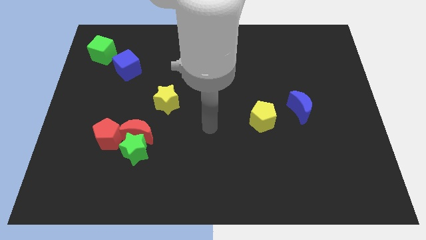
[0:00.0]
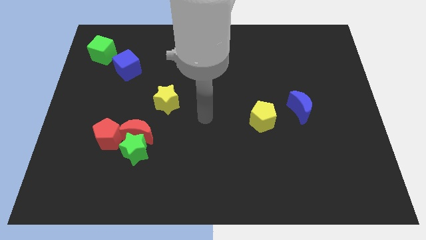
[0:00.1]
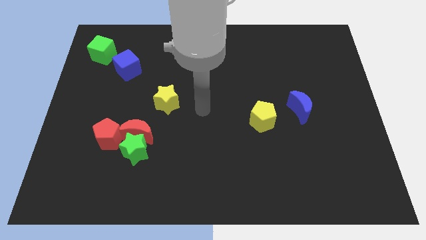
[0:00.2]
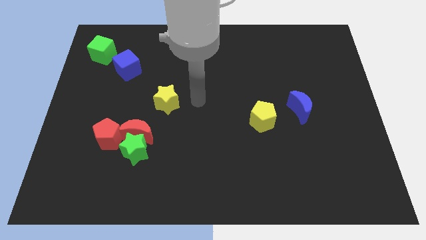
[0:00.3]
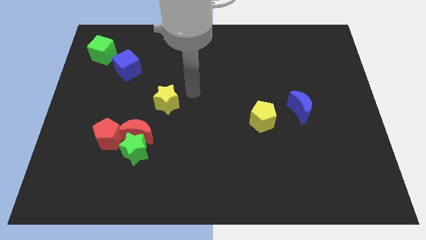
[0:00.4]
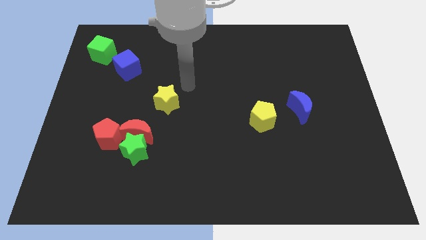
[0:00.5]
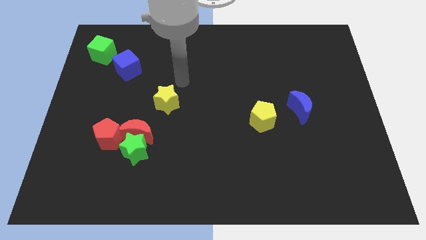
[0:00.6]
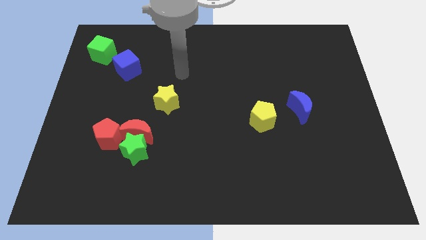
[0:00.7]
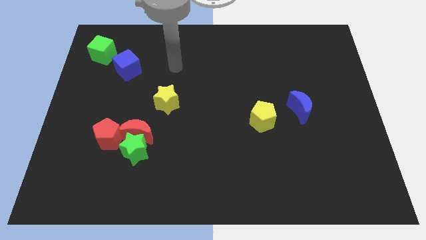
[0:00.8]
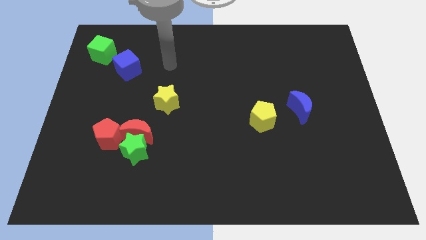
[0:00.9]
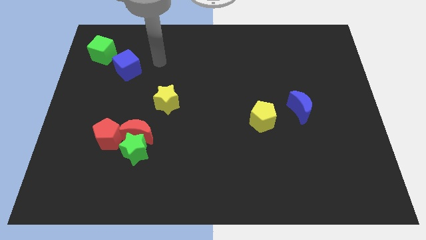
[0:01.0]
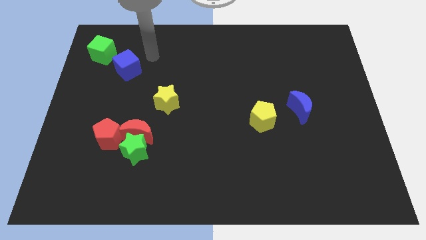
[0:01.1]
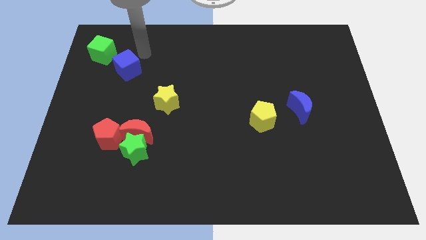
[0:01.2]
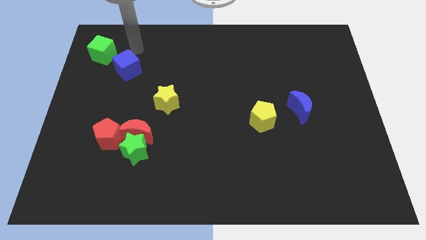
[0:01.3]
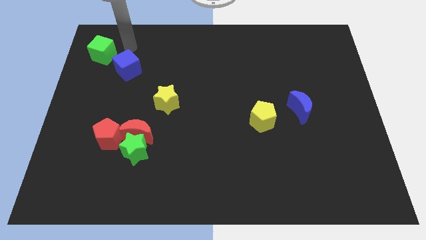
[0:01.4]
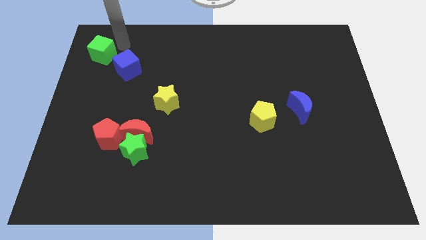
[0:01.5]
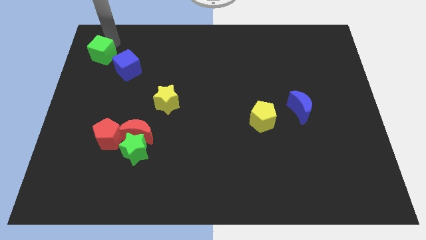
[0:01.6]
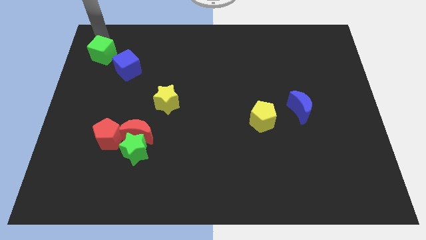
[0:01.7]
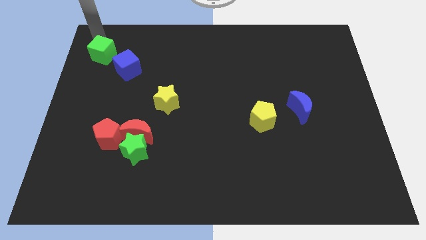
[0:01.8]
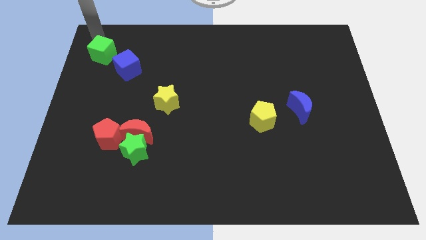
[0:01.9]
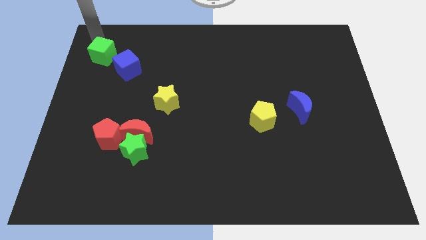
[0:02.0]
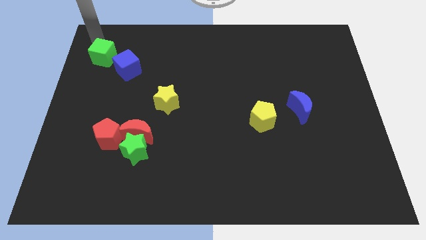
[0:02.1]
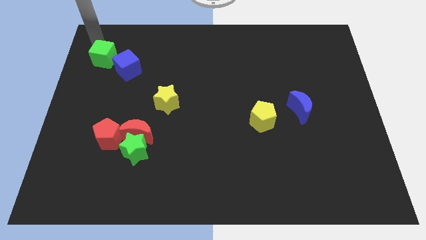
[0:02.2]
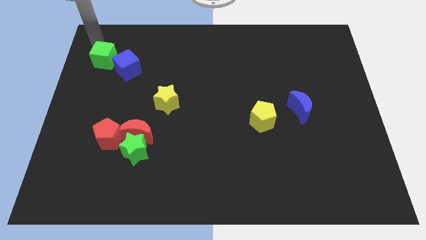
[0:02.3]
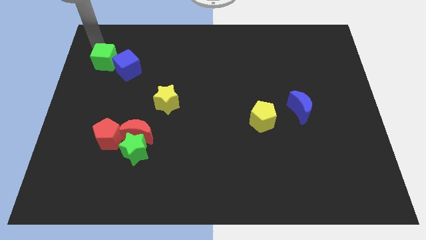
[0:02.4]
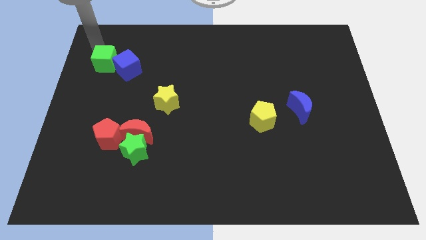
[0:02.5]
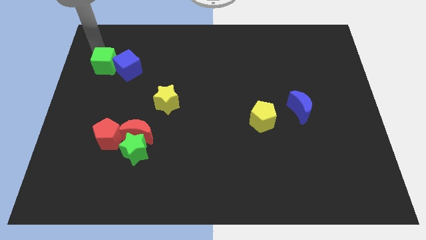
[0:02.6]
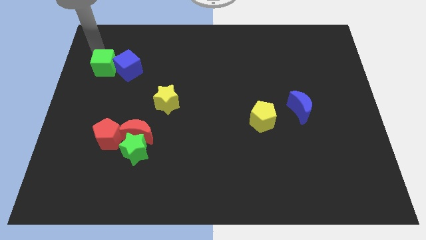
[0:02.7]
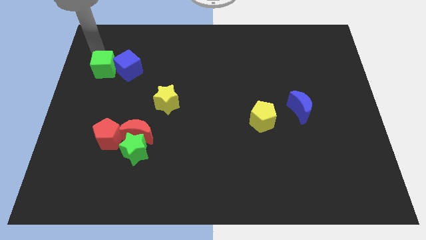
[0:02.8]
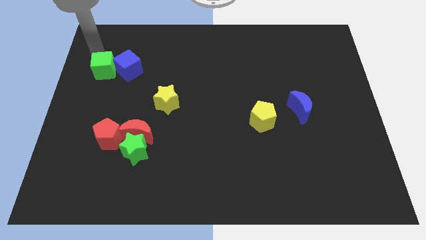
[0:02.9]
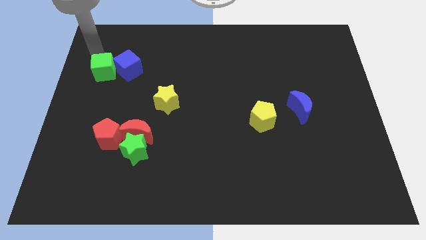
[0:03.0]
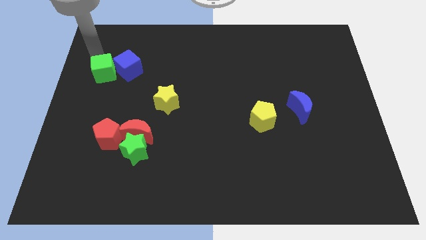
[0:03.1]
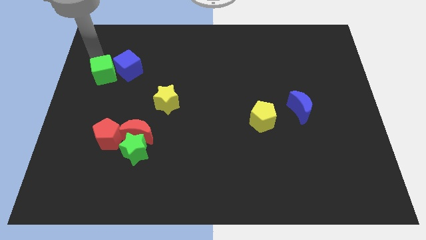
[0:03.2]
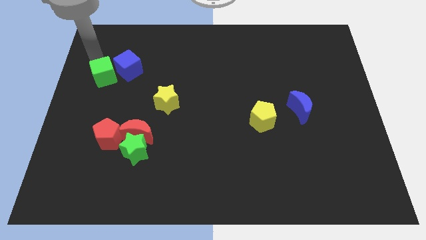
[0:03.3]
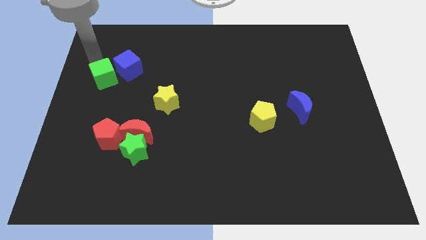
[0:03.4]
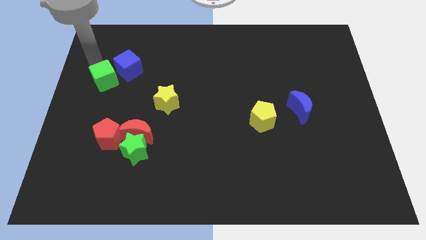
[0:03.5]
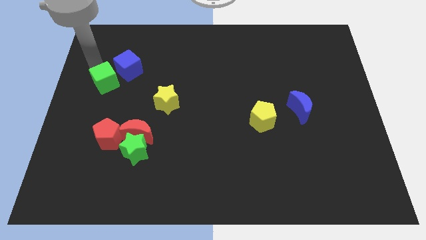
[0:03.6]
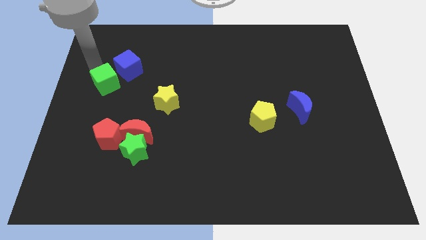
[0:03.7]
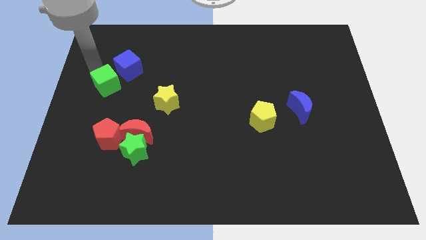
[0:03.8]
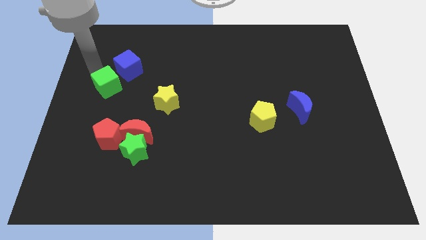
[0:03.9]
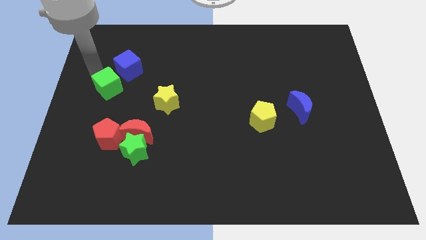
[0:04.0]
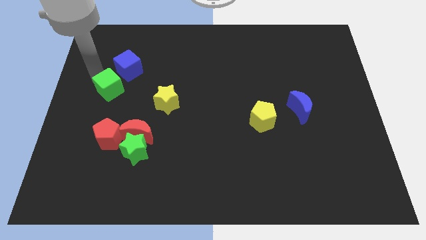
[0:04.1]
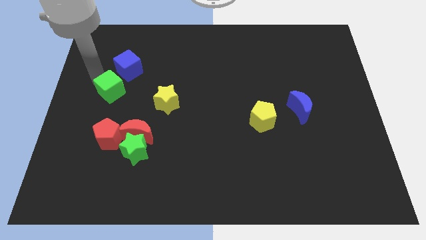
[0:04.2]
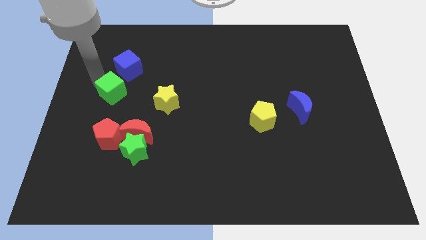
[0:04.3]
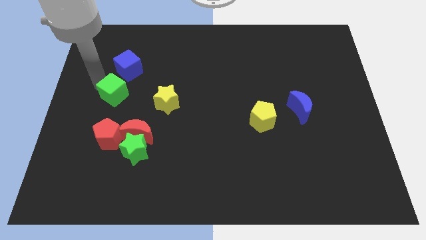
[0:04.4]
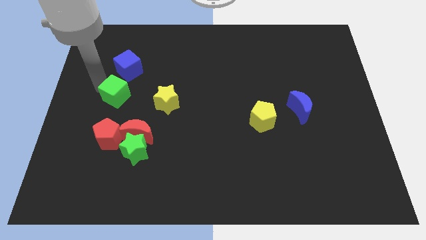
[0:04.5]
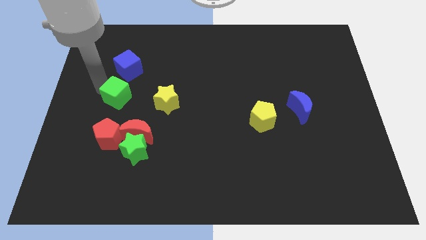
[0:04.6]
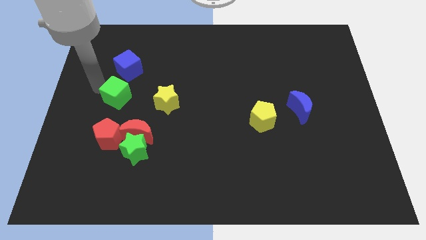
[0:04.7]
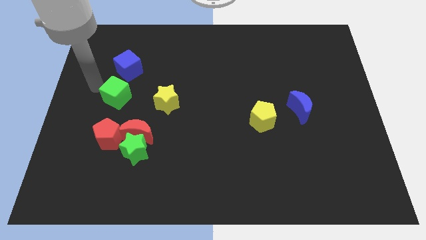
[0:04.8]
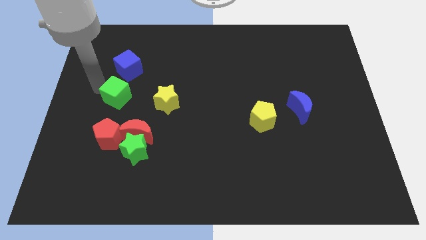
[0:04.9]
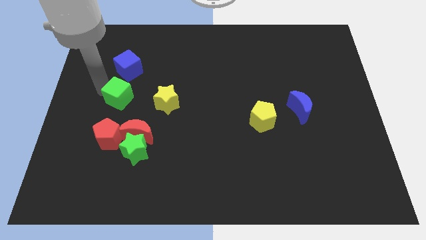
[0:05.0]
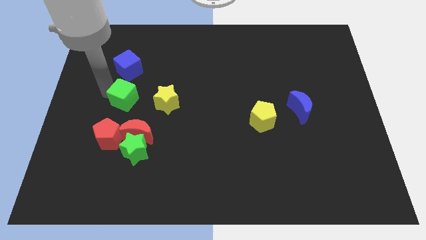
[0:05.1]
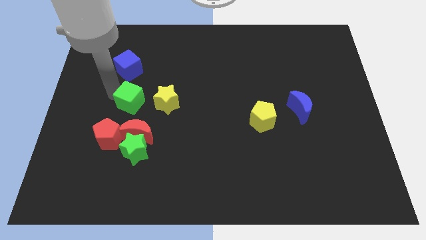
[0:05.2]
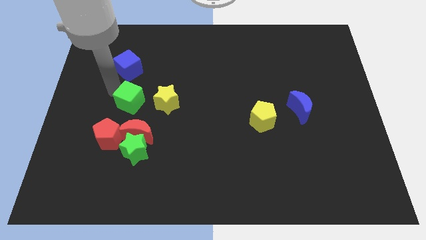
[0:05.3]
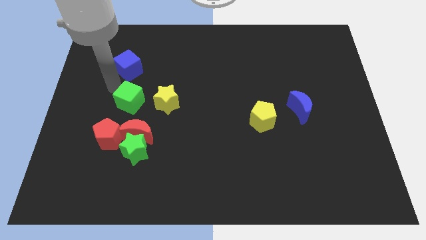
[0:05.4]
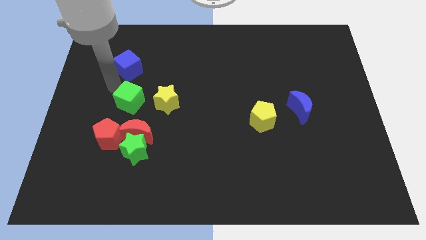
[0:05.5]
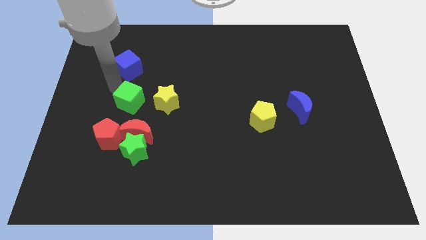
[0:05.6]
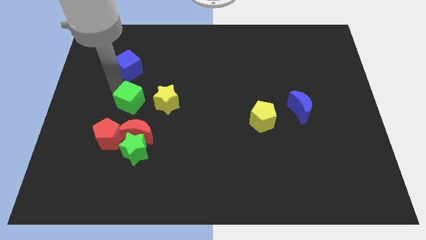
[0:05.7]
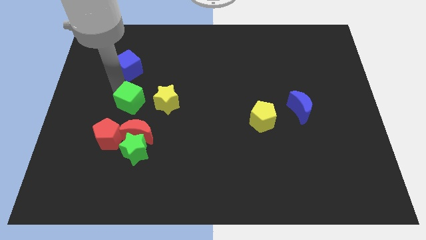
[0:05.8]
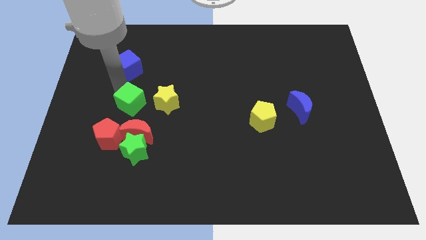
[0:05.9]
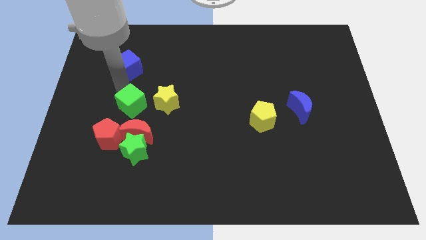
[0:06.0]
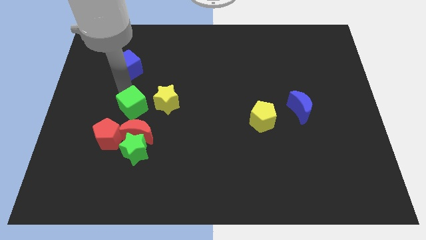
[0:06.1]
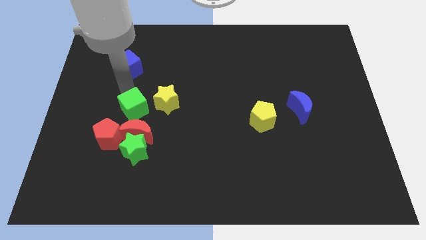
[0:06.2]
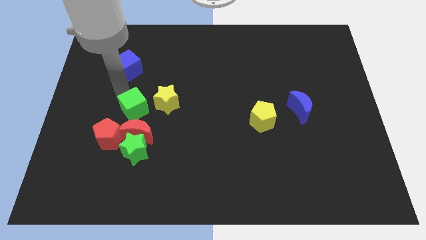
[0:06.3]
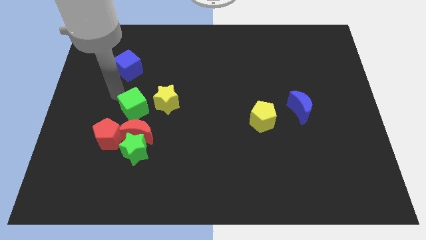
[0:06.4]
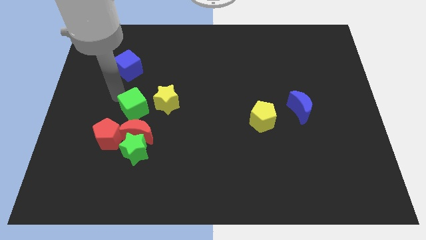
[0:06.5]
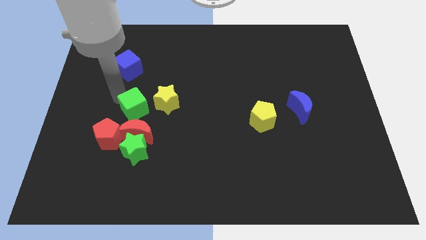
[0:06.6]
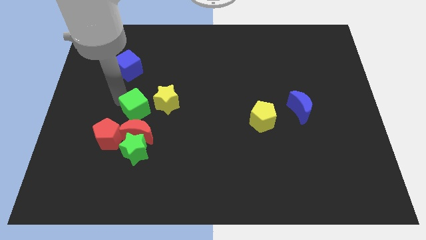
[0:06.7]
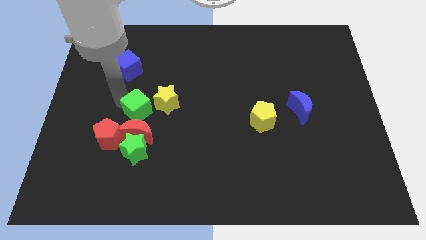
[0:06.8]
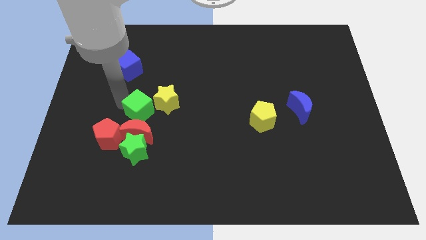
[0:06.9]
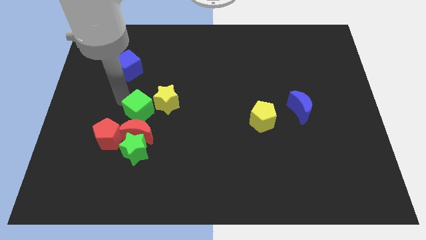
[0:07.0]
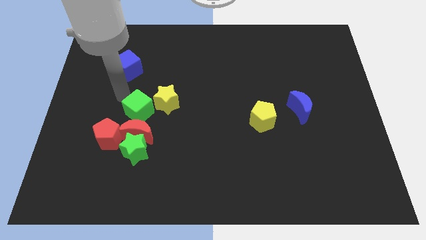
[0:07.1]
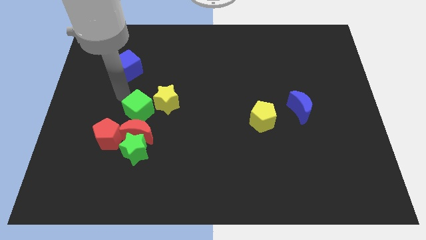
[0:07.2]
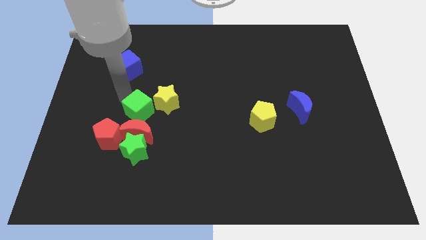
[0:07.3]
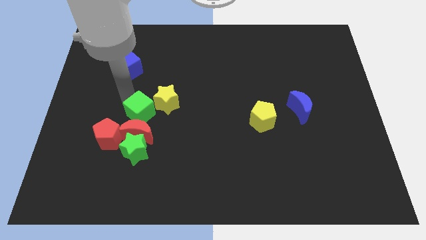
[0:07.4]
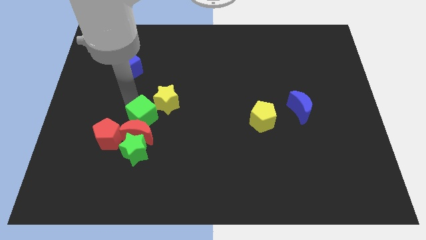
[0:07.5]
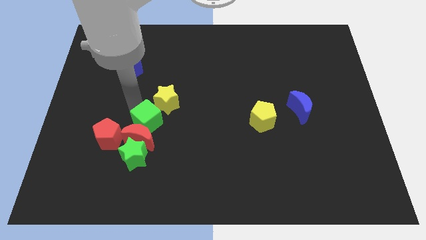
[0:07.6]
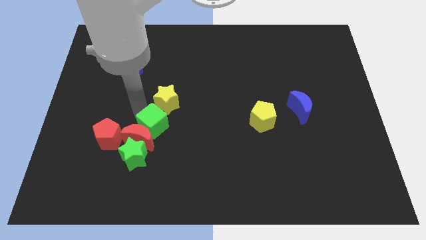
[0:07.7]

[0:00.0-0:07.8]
put the green cube to the top right of the green star
